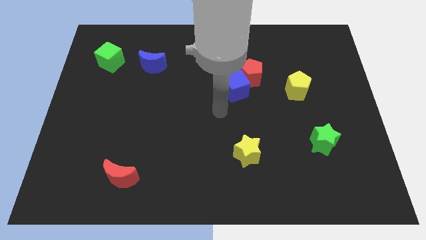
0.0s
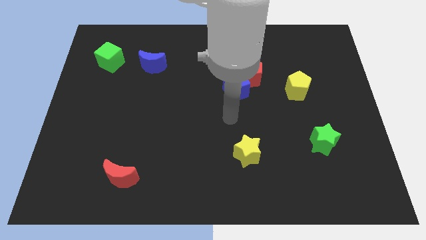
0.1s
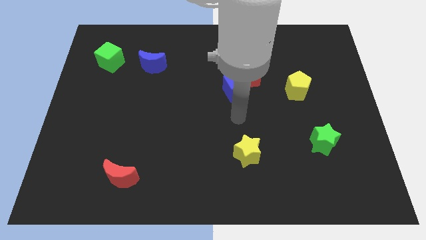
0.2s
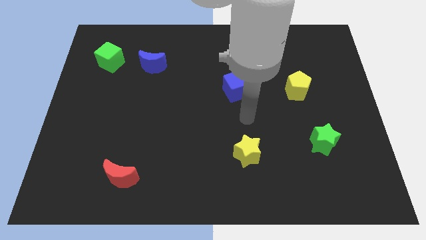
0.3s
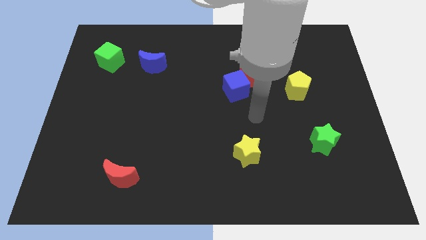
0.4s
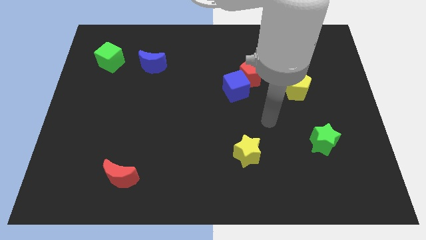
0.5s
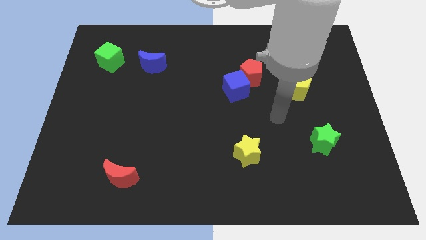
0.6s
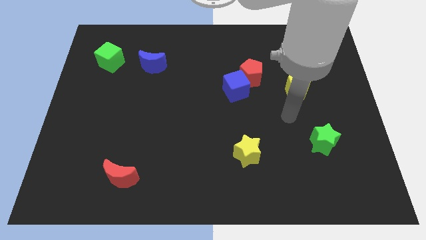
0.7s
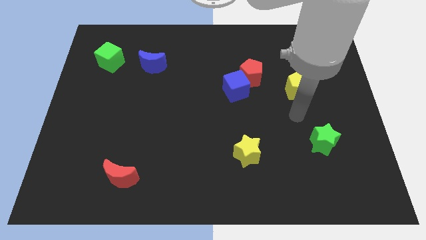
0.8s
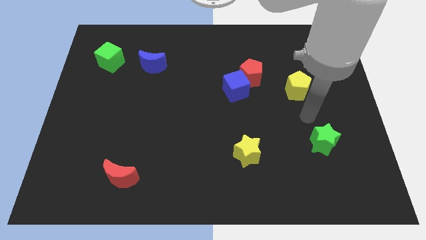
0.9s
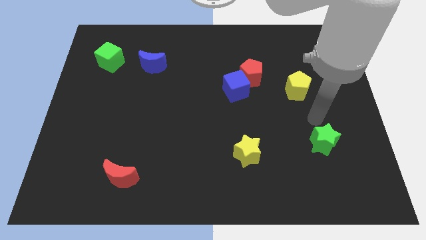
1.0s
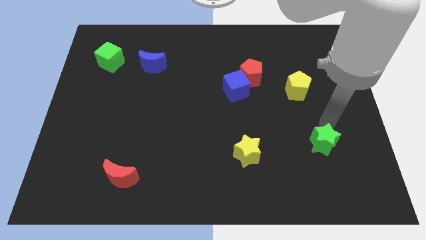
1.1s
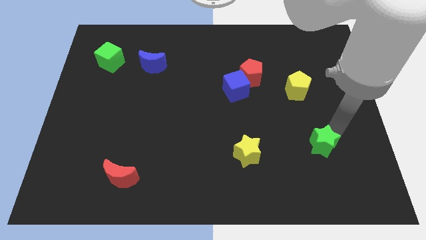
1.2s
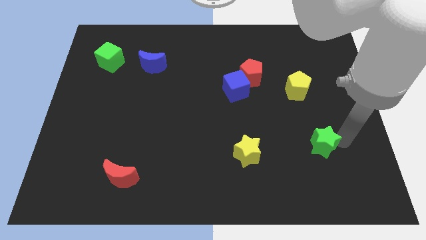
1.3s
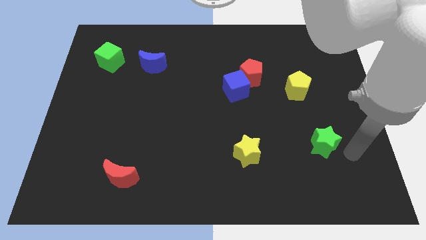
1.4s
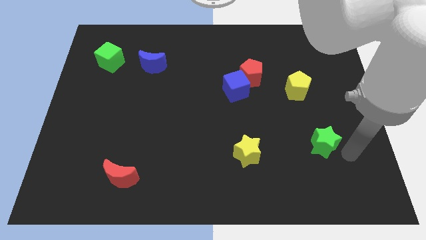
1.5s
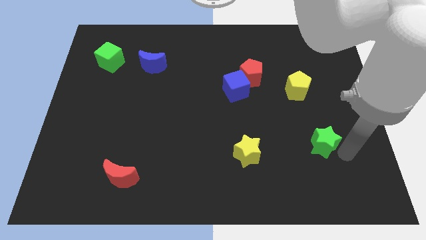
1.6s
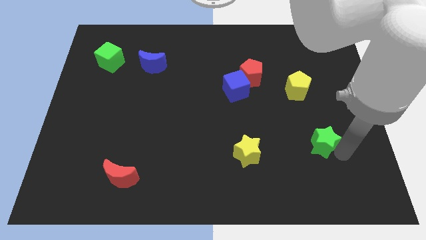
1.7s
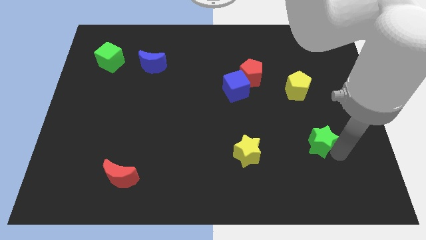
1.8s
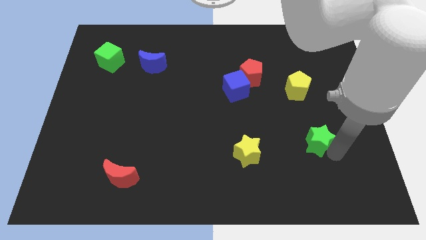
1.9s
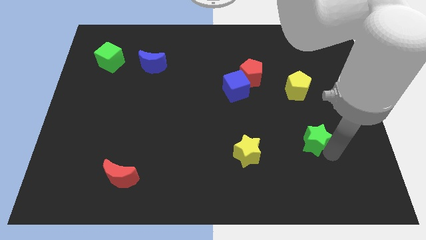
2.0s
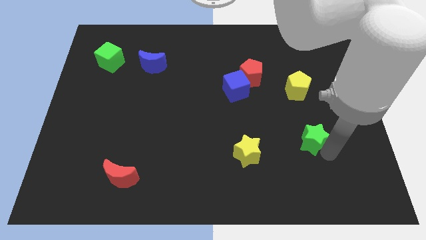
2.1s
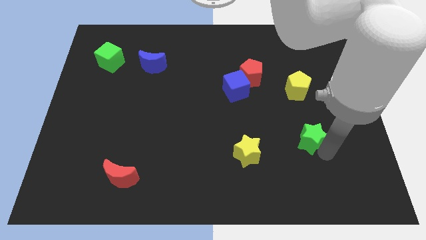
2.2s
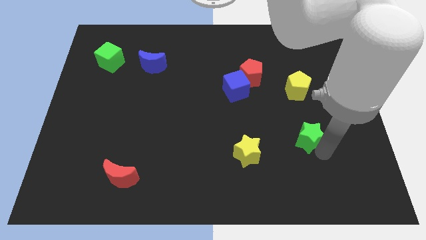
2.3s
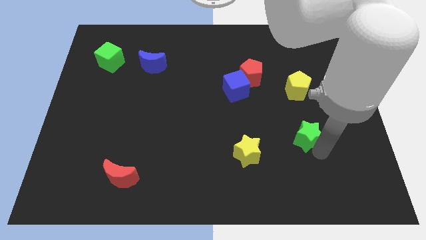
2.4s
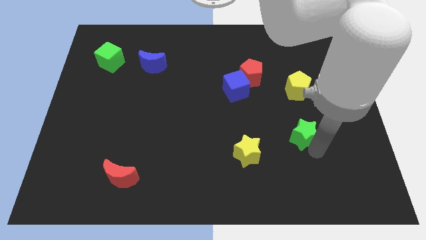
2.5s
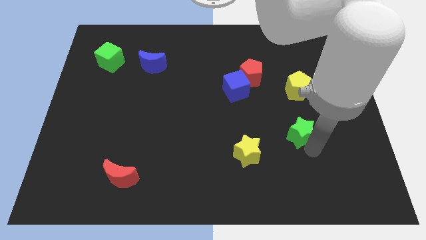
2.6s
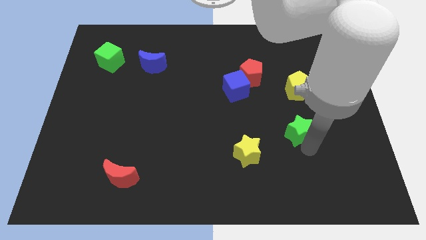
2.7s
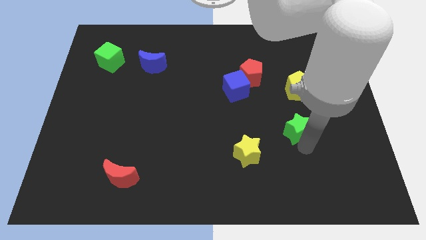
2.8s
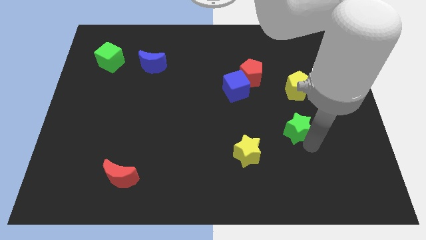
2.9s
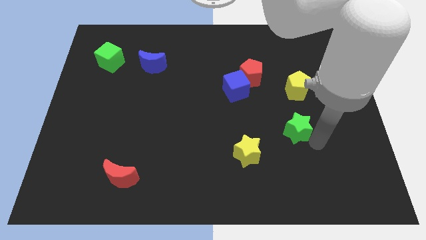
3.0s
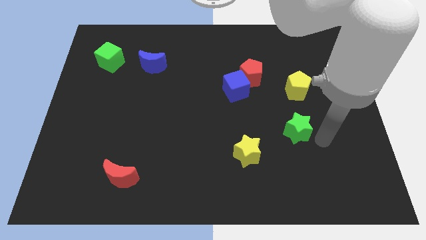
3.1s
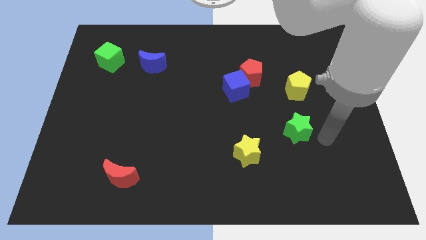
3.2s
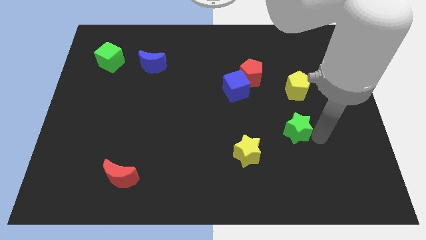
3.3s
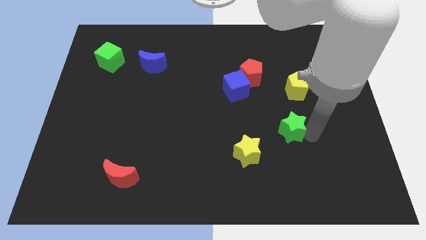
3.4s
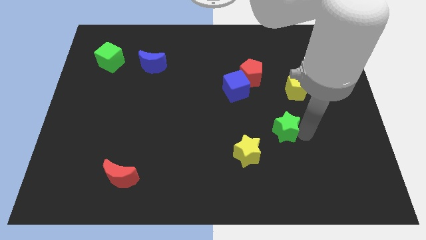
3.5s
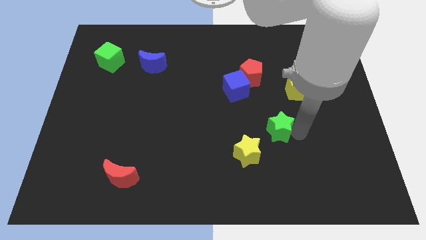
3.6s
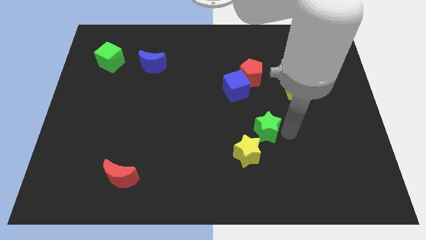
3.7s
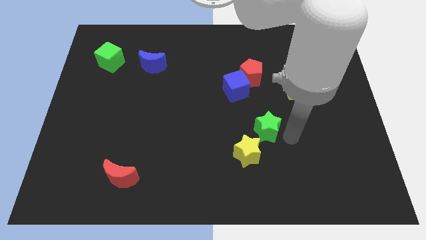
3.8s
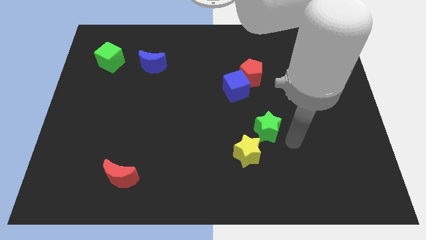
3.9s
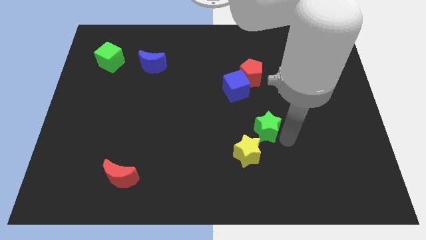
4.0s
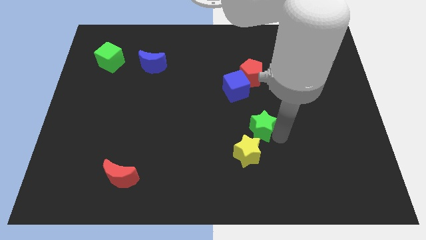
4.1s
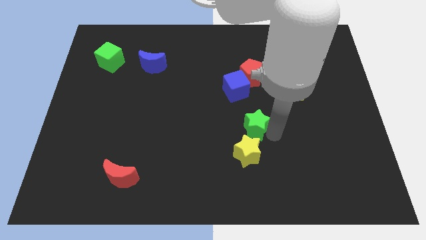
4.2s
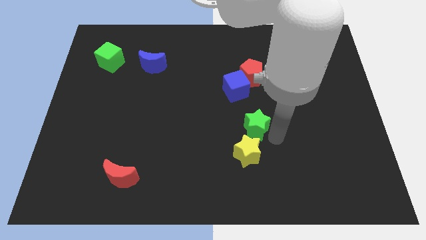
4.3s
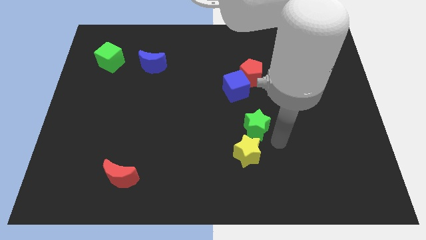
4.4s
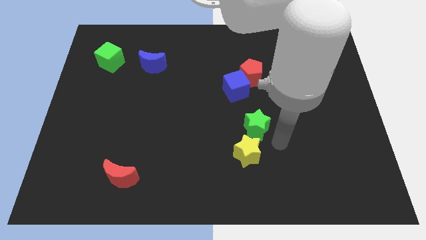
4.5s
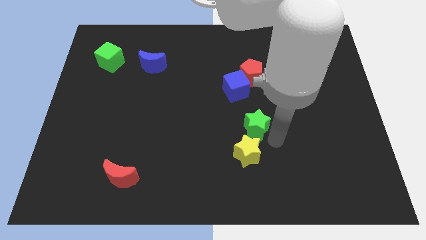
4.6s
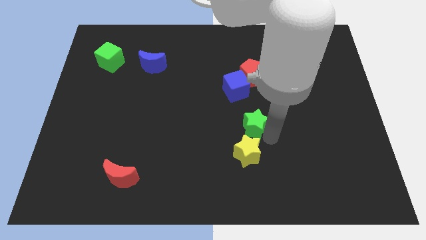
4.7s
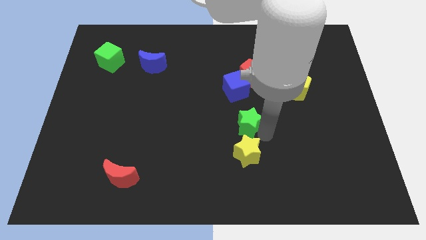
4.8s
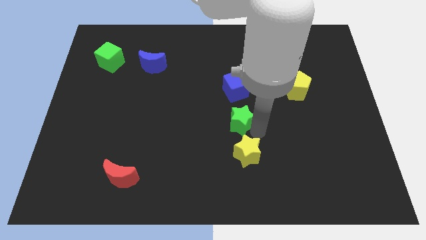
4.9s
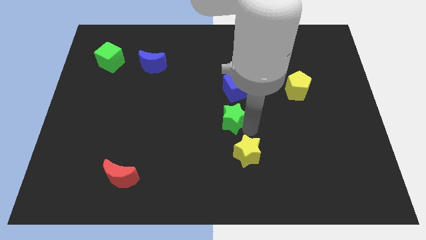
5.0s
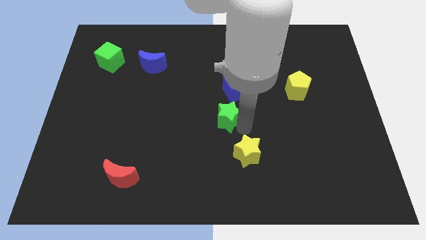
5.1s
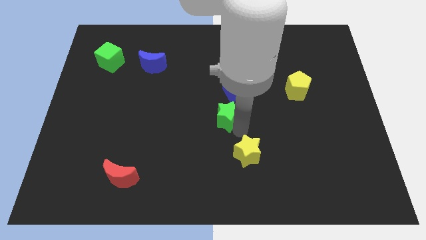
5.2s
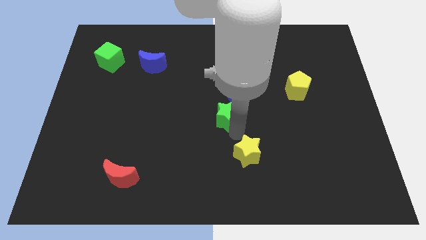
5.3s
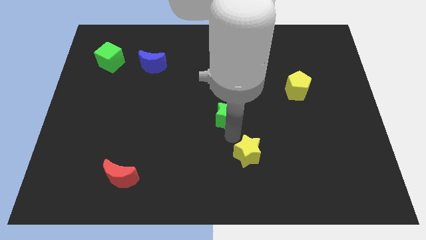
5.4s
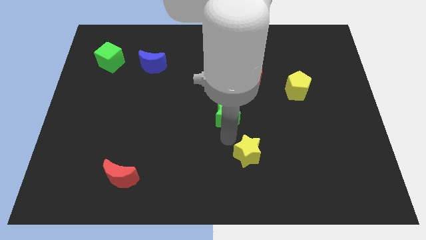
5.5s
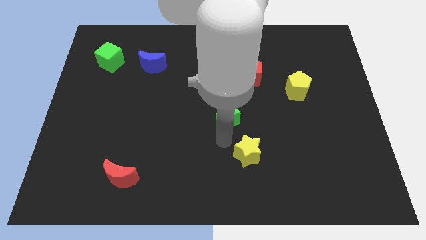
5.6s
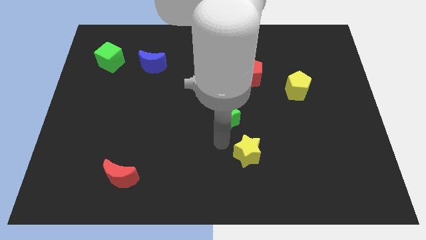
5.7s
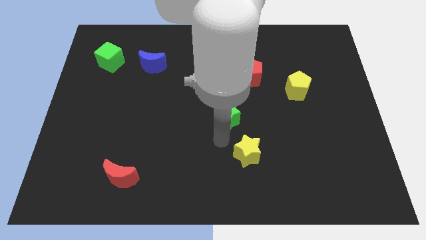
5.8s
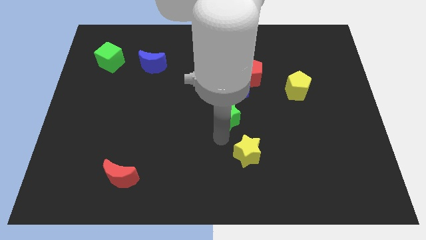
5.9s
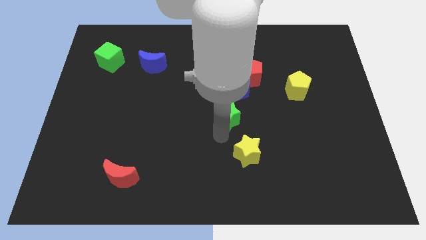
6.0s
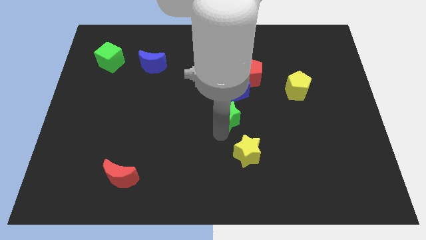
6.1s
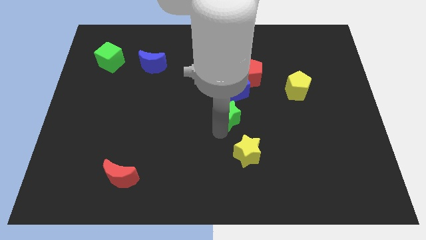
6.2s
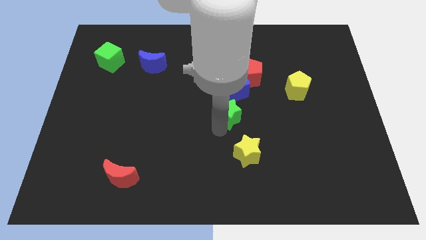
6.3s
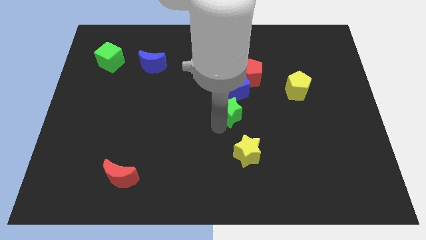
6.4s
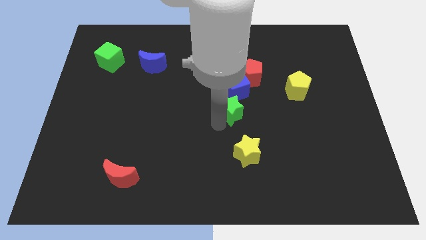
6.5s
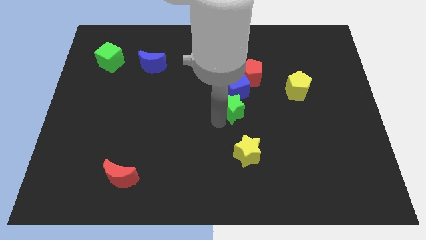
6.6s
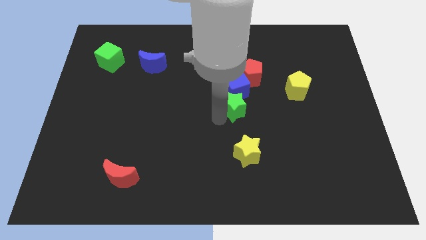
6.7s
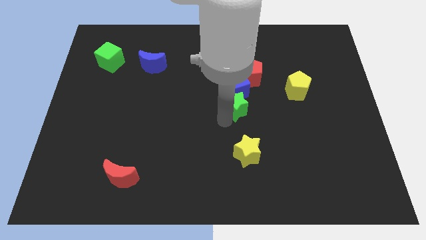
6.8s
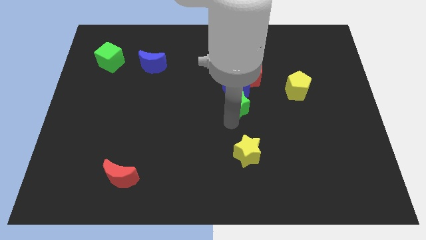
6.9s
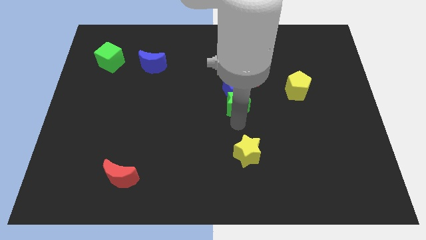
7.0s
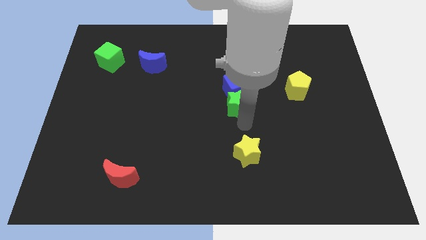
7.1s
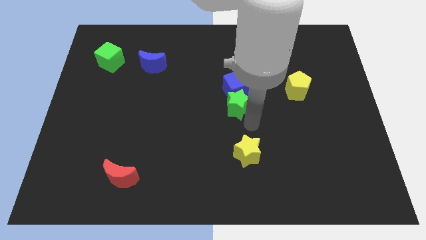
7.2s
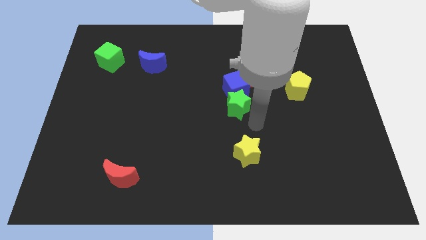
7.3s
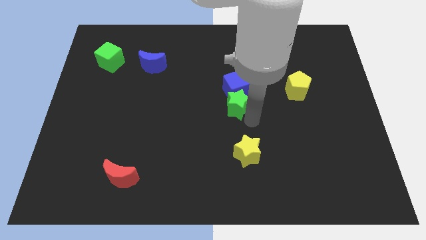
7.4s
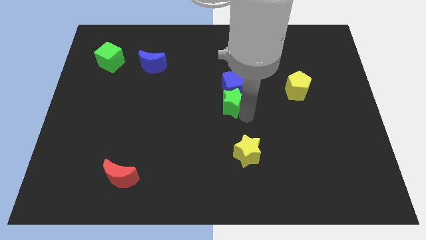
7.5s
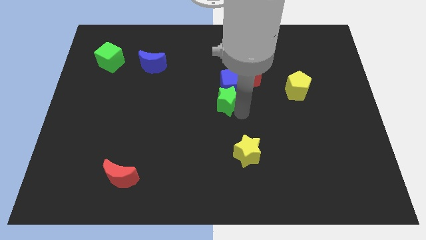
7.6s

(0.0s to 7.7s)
slide the green star diagonally upwards and to the left

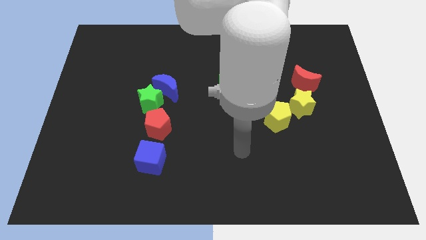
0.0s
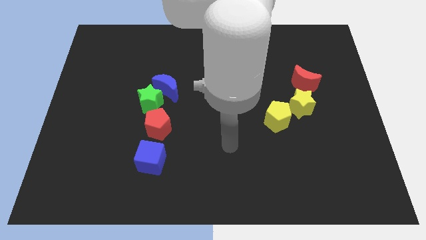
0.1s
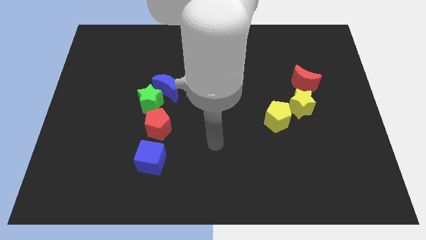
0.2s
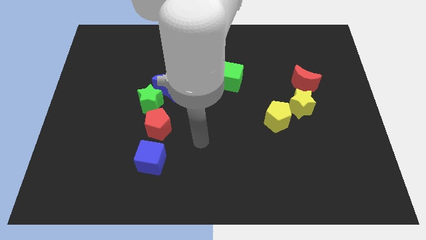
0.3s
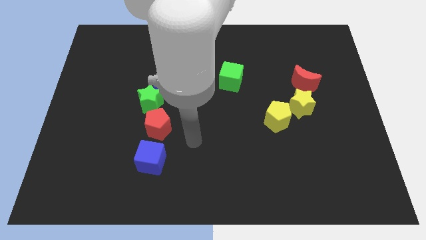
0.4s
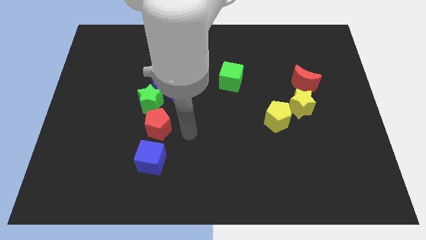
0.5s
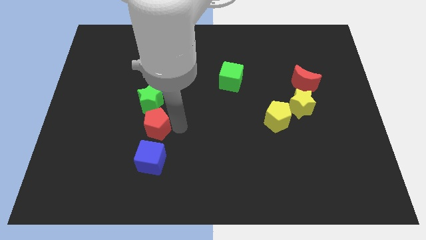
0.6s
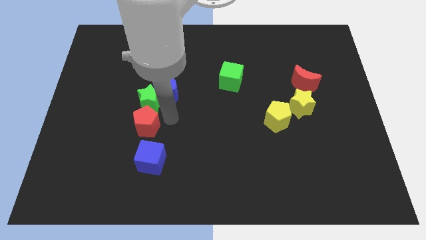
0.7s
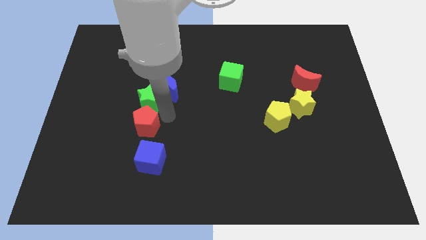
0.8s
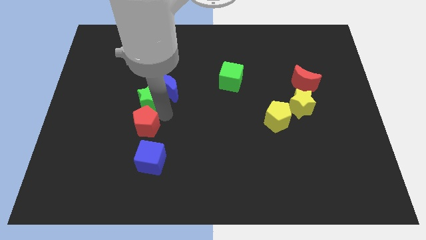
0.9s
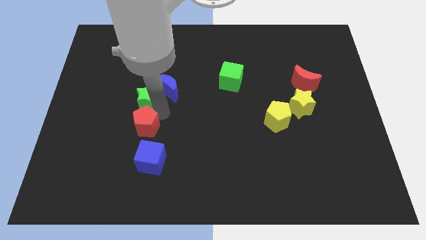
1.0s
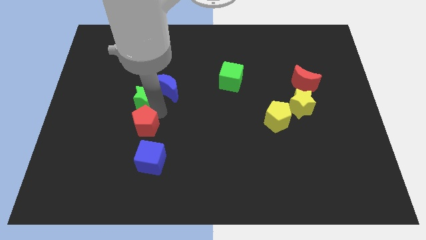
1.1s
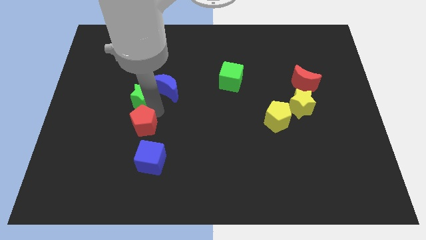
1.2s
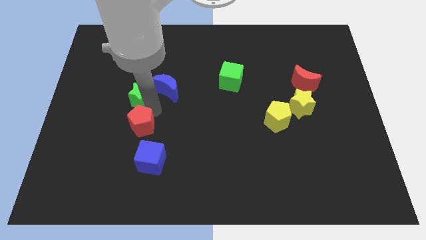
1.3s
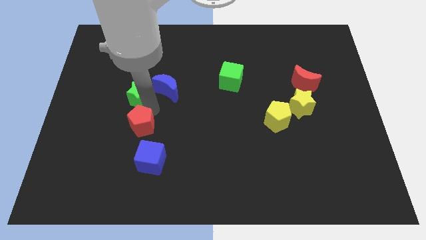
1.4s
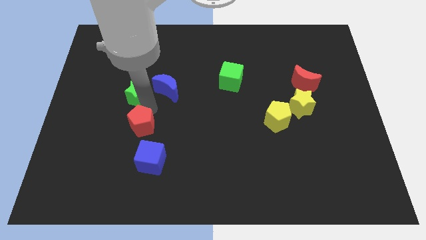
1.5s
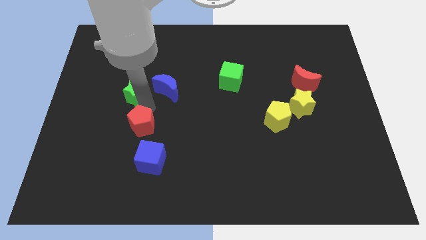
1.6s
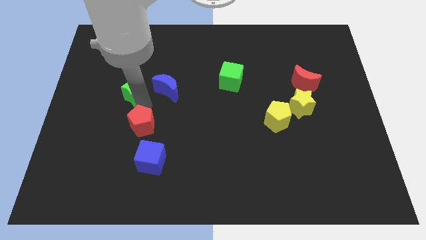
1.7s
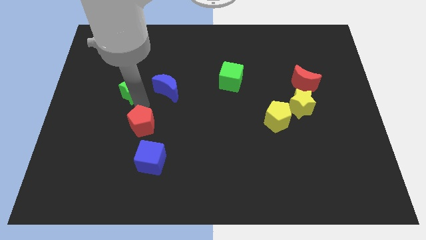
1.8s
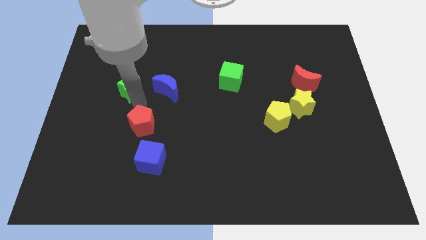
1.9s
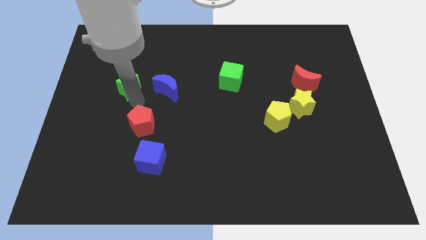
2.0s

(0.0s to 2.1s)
push the green star up and to the left diagonally a little
